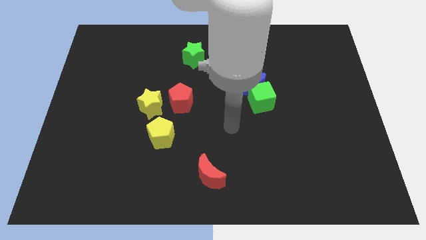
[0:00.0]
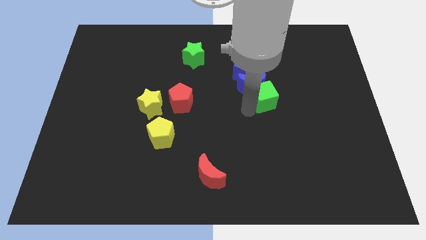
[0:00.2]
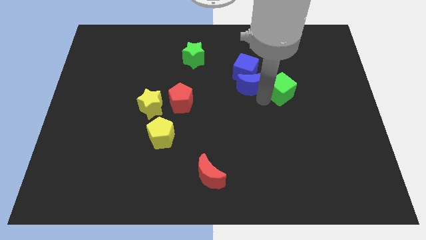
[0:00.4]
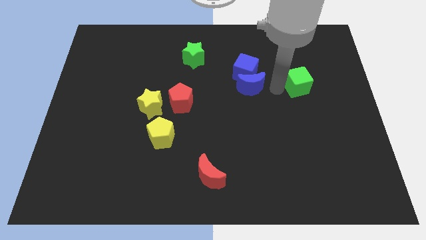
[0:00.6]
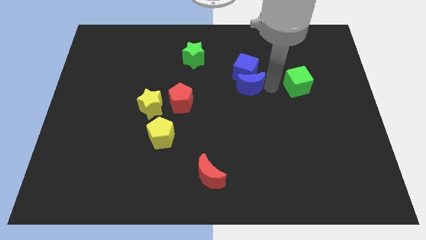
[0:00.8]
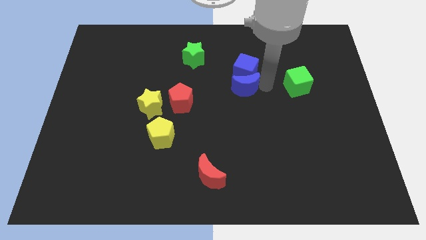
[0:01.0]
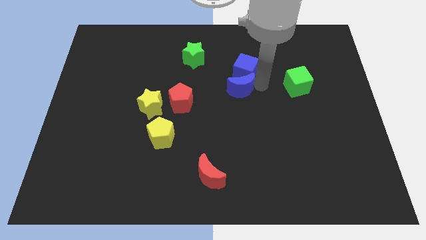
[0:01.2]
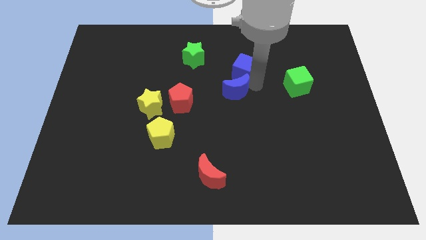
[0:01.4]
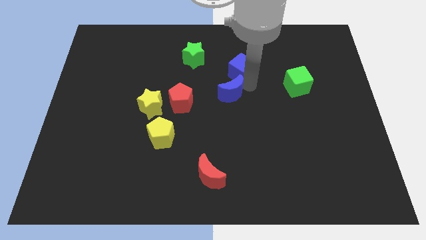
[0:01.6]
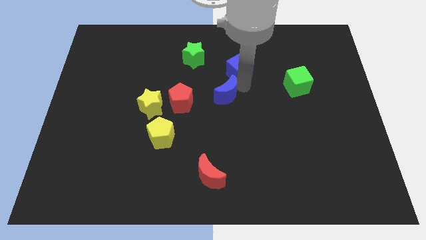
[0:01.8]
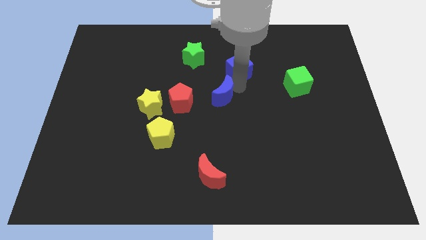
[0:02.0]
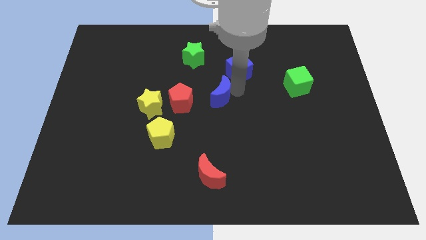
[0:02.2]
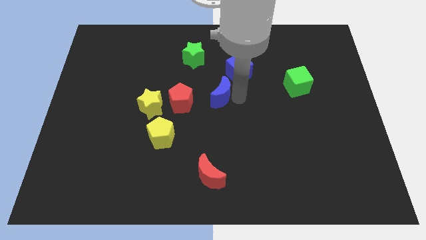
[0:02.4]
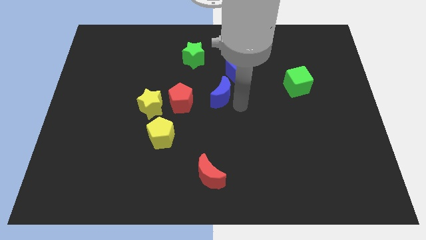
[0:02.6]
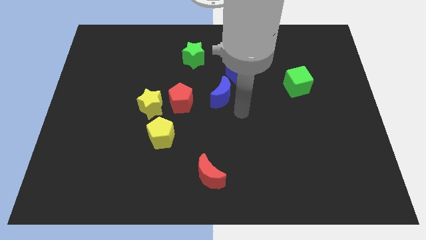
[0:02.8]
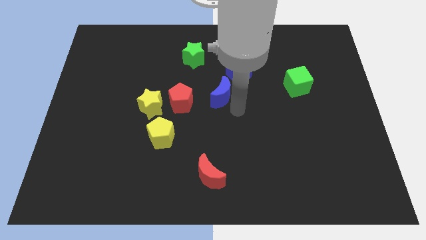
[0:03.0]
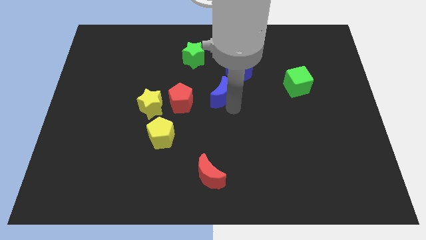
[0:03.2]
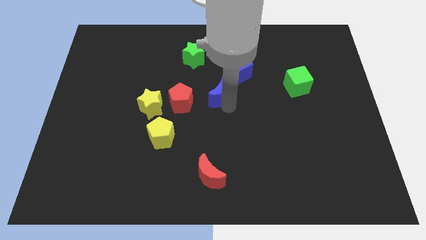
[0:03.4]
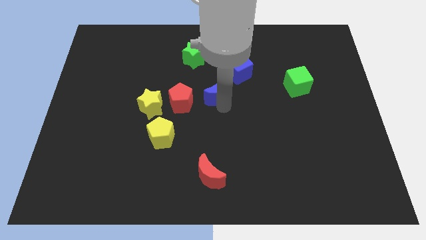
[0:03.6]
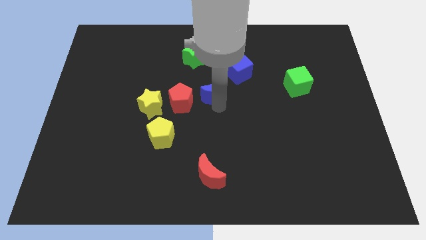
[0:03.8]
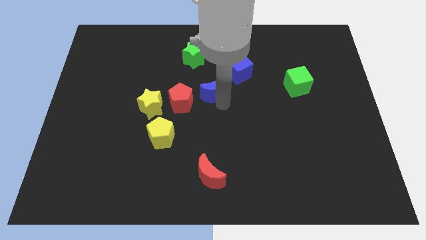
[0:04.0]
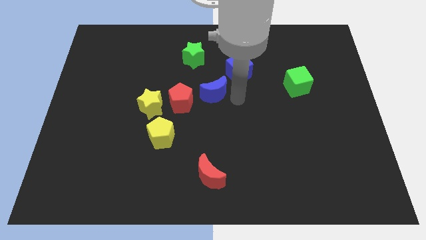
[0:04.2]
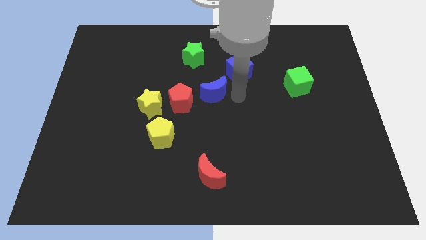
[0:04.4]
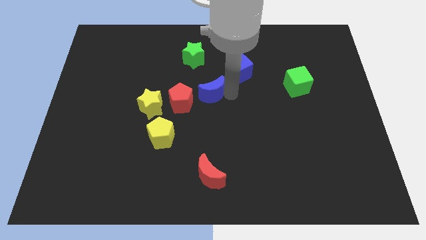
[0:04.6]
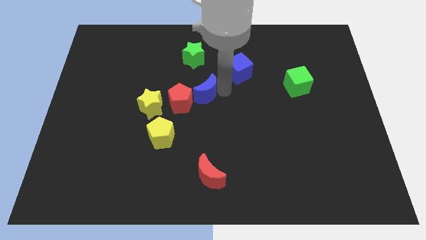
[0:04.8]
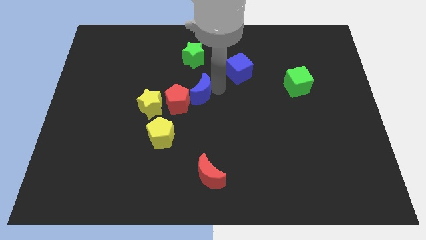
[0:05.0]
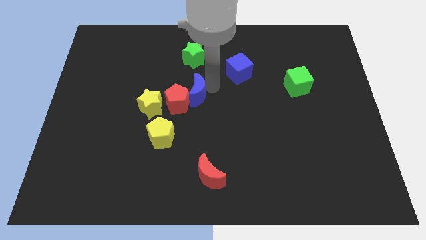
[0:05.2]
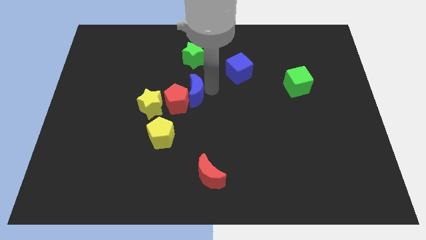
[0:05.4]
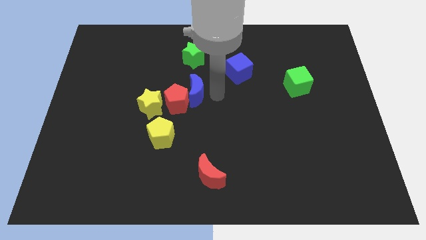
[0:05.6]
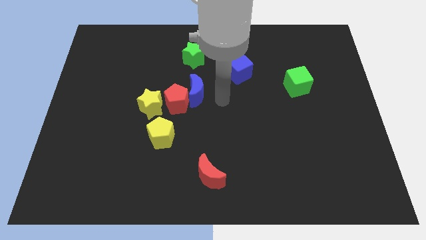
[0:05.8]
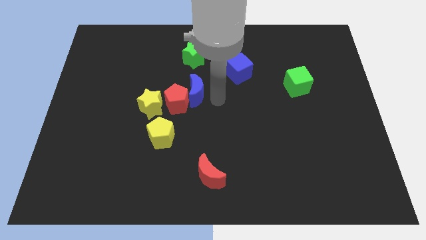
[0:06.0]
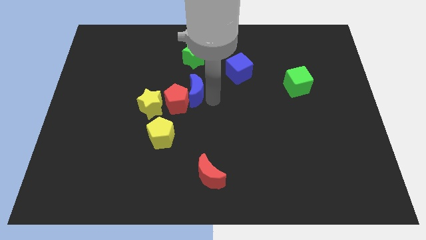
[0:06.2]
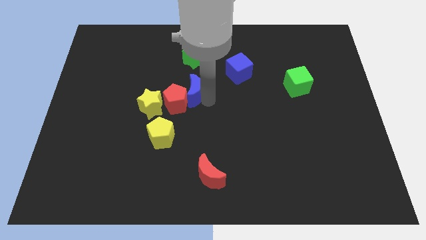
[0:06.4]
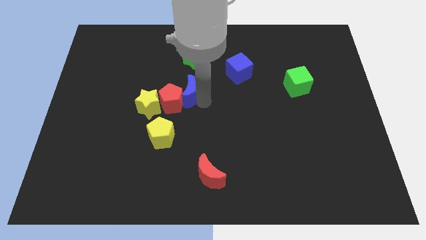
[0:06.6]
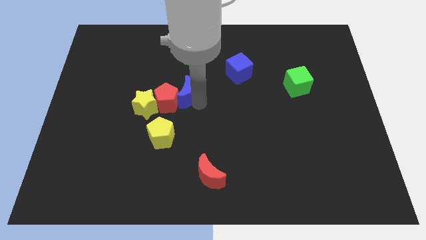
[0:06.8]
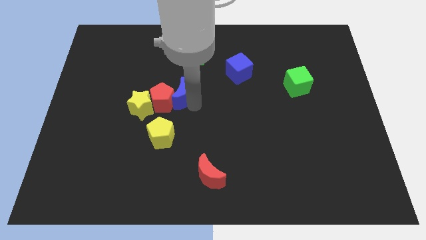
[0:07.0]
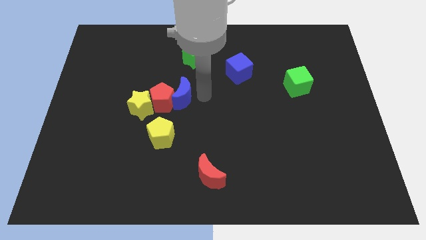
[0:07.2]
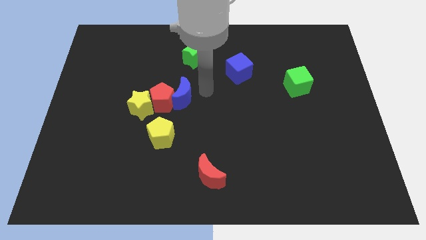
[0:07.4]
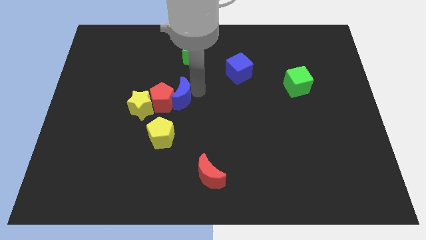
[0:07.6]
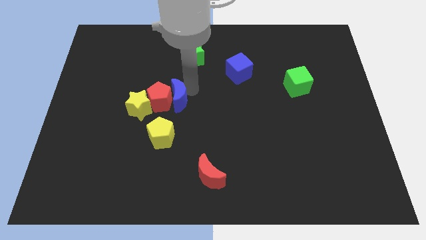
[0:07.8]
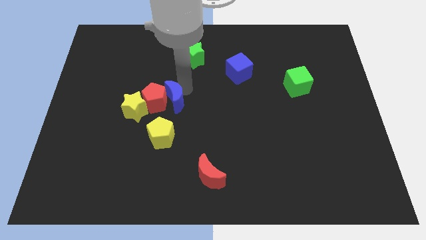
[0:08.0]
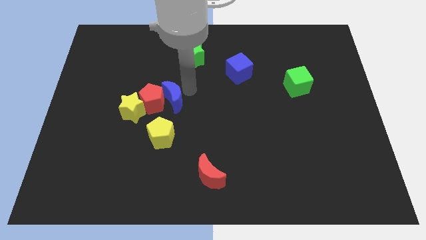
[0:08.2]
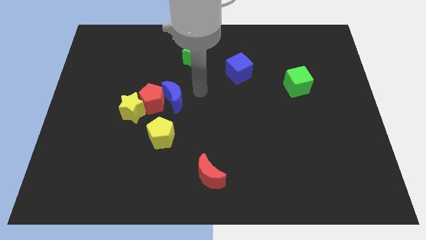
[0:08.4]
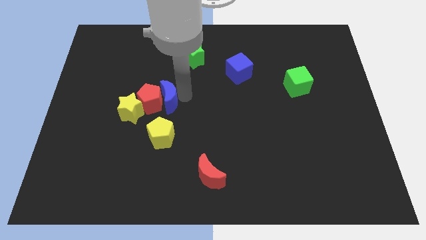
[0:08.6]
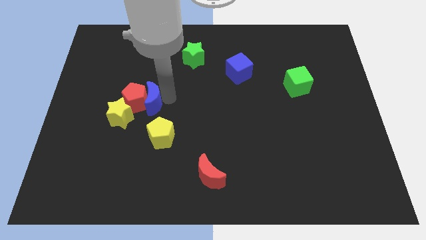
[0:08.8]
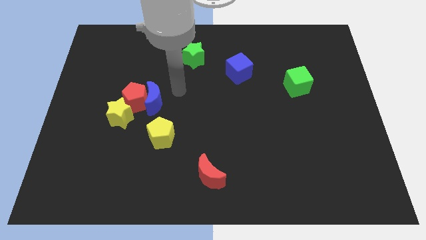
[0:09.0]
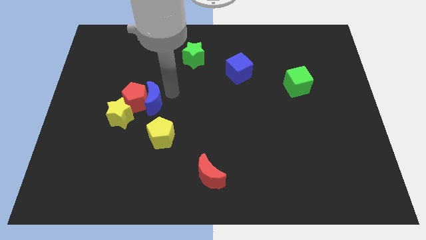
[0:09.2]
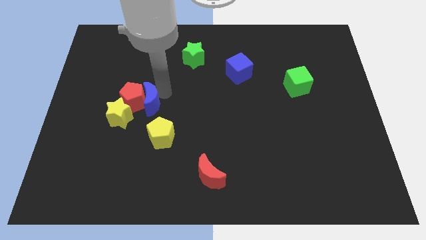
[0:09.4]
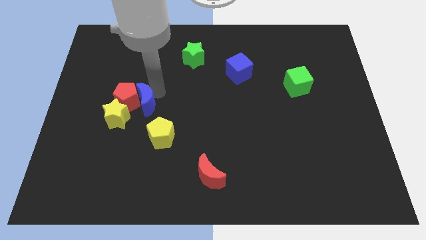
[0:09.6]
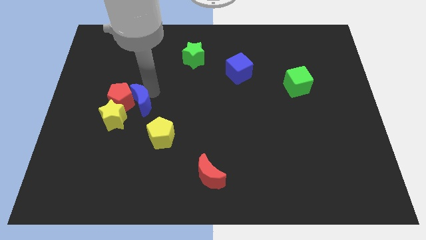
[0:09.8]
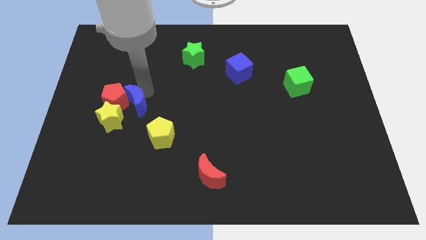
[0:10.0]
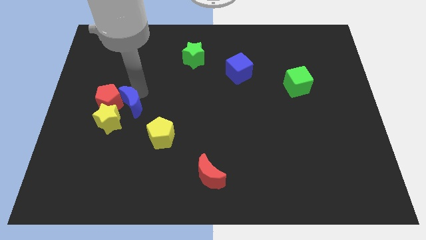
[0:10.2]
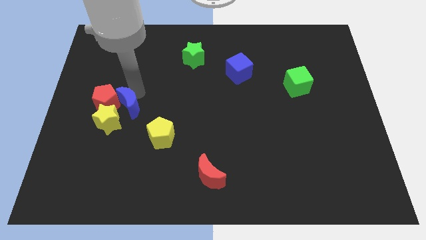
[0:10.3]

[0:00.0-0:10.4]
push the blue moon to the yellow star
